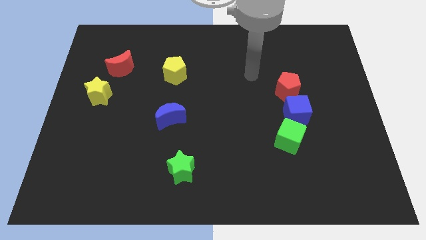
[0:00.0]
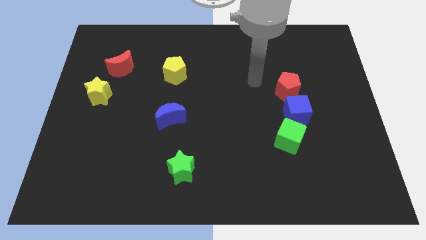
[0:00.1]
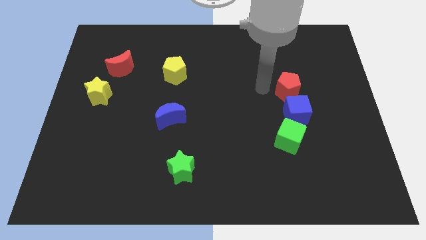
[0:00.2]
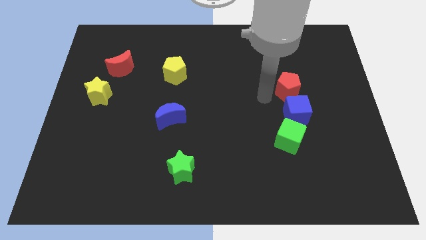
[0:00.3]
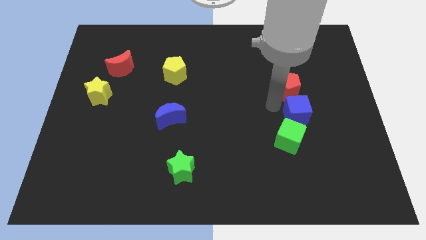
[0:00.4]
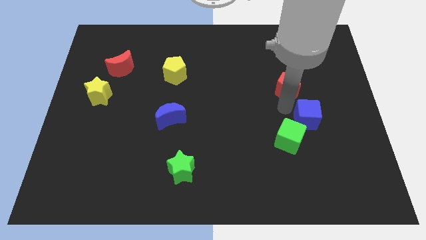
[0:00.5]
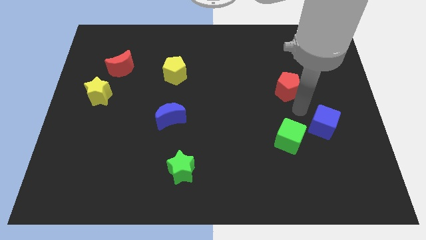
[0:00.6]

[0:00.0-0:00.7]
separate the red pentagon from the blue cube

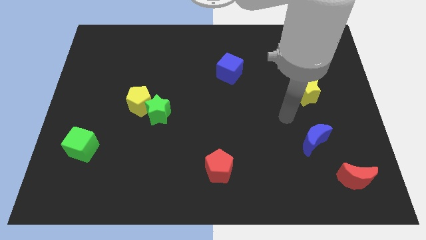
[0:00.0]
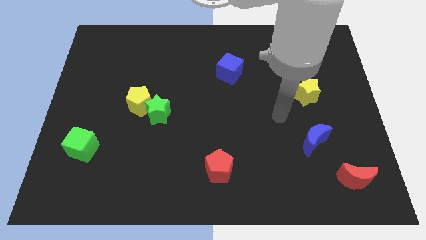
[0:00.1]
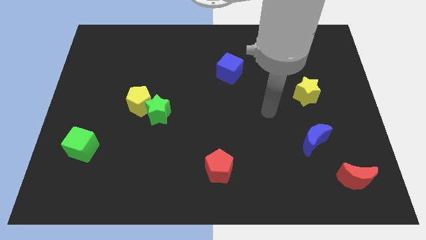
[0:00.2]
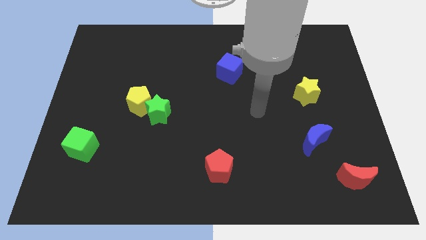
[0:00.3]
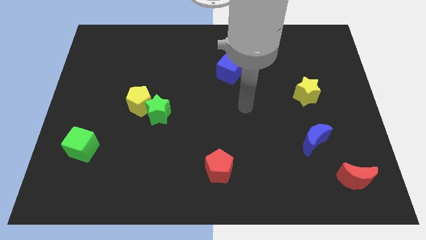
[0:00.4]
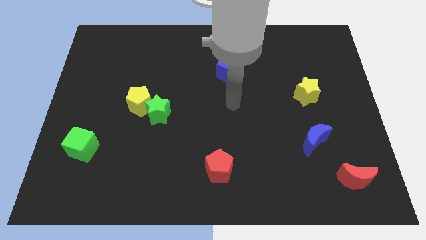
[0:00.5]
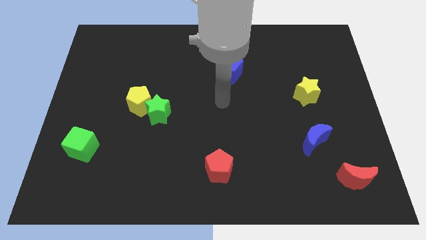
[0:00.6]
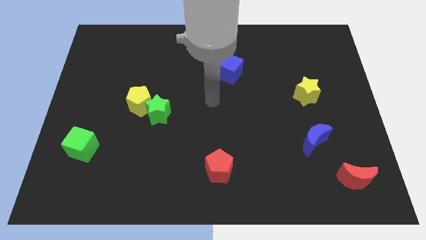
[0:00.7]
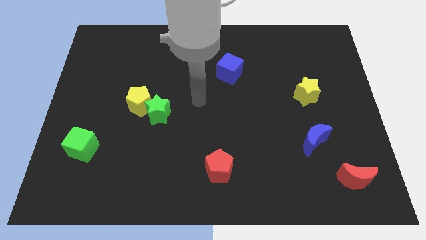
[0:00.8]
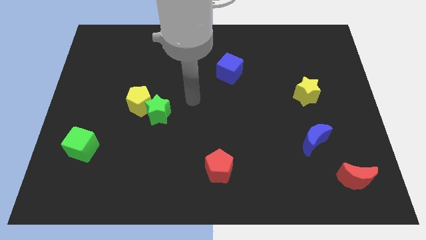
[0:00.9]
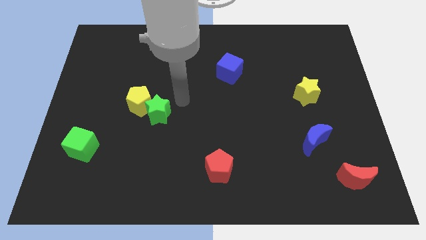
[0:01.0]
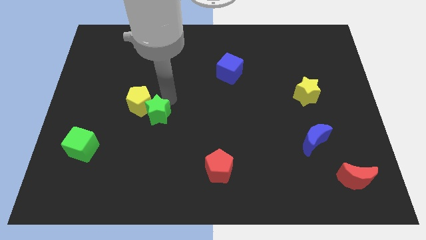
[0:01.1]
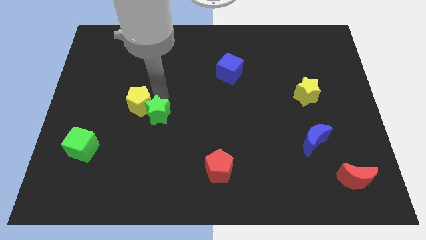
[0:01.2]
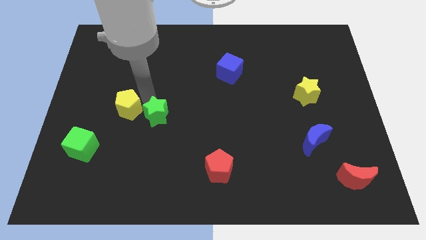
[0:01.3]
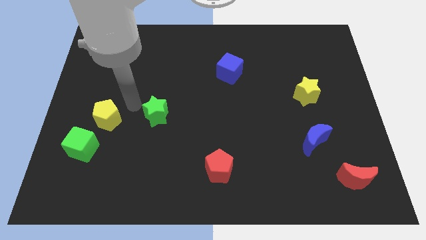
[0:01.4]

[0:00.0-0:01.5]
separate the green star from the yellow pentagon

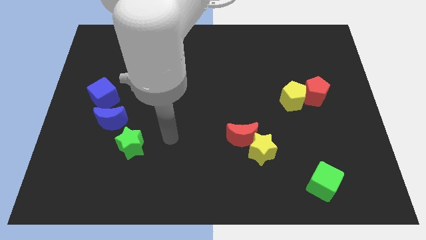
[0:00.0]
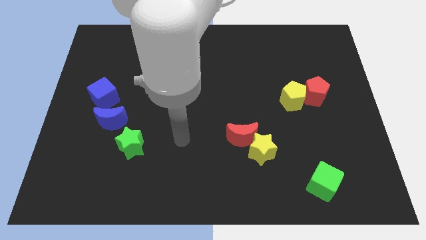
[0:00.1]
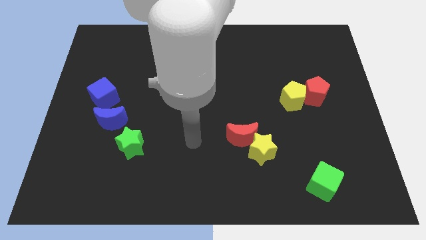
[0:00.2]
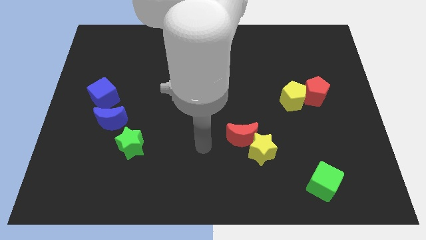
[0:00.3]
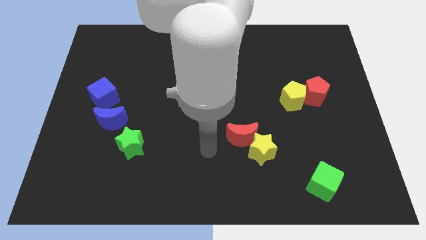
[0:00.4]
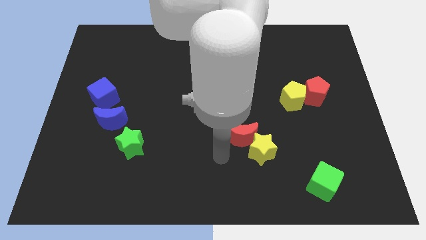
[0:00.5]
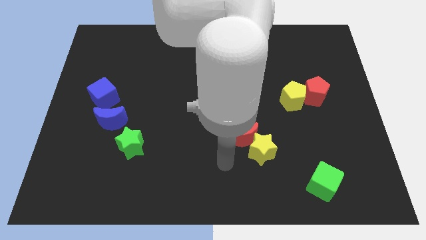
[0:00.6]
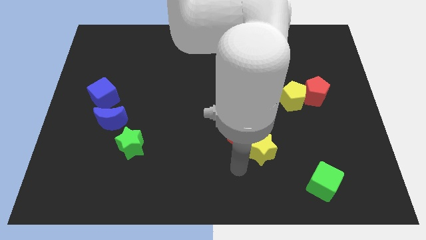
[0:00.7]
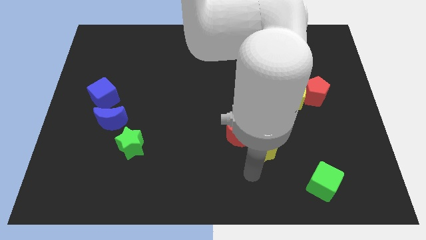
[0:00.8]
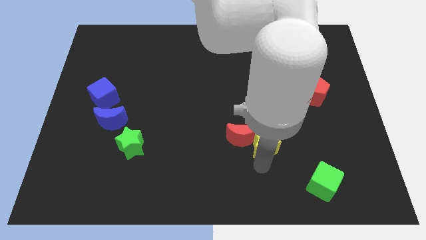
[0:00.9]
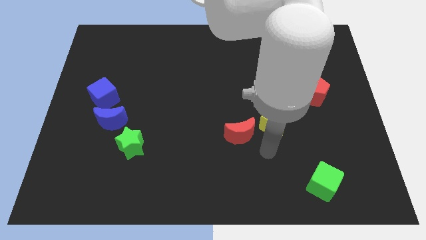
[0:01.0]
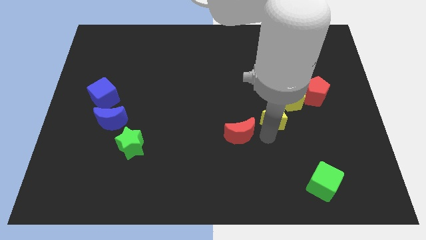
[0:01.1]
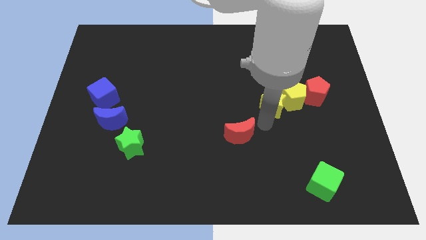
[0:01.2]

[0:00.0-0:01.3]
separate the red moon from the yellow star

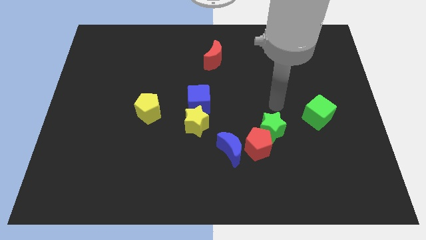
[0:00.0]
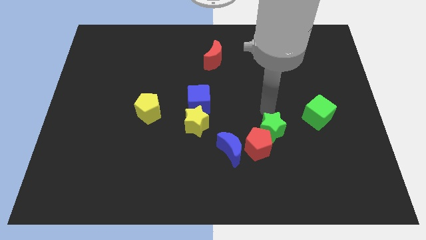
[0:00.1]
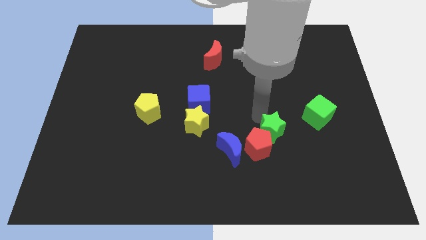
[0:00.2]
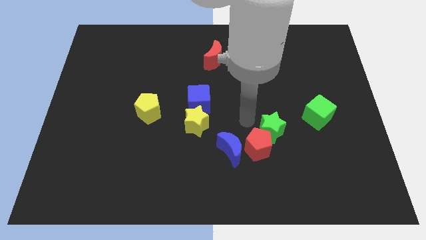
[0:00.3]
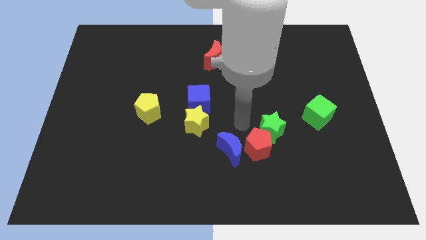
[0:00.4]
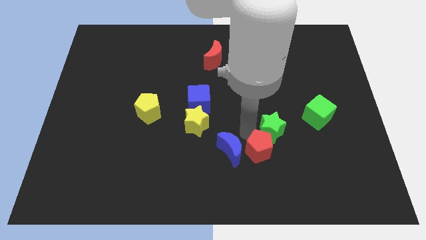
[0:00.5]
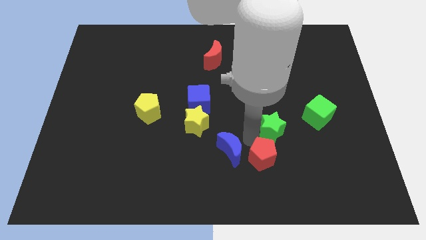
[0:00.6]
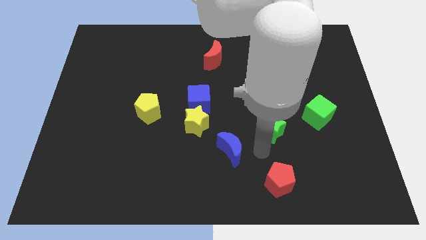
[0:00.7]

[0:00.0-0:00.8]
move the green star away from the red pentagon

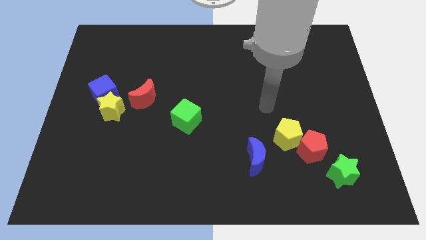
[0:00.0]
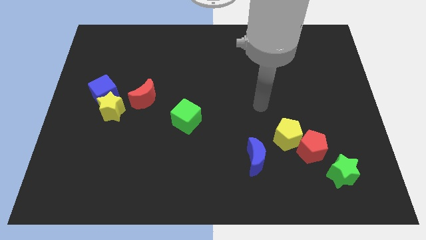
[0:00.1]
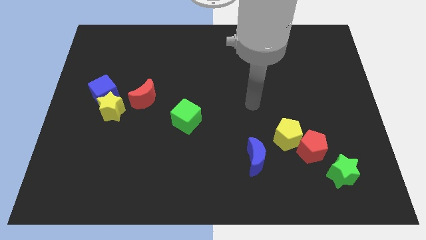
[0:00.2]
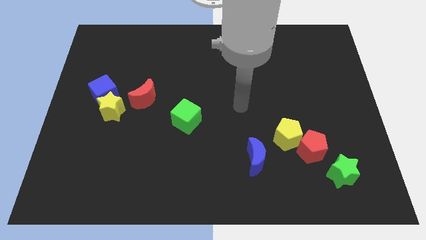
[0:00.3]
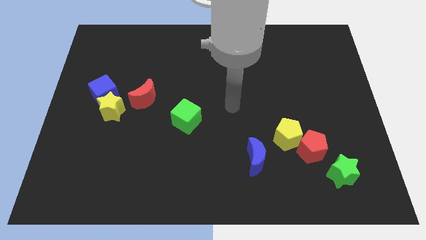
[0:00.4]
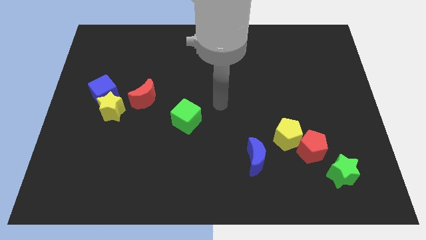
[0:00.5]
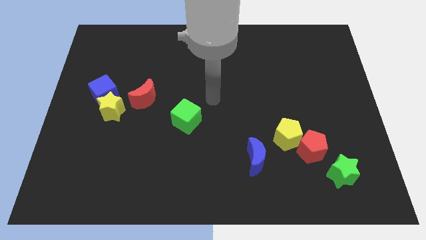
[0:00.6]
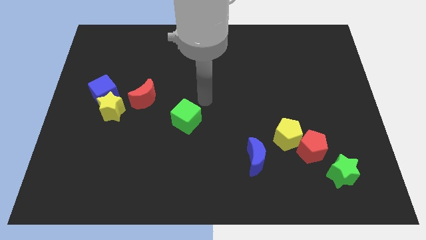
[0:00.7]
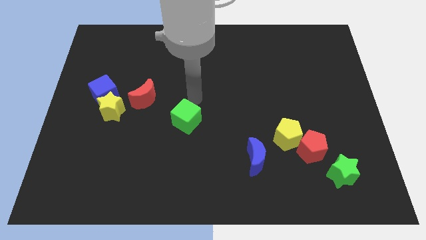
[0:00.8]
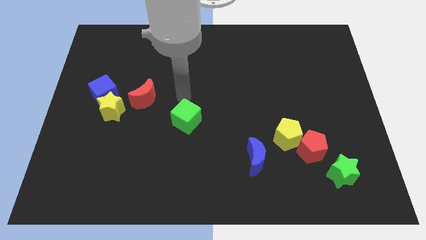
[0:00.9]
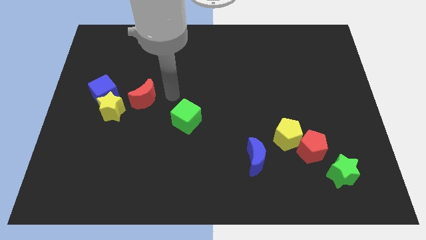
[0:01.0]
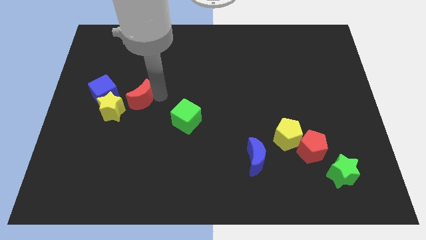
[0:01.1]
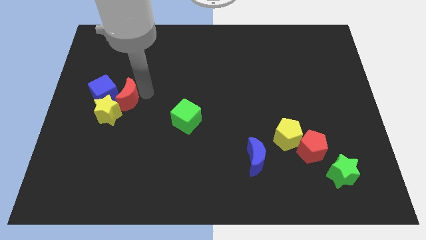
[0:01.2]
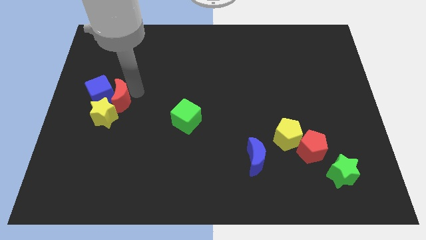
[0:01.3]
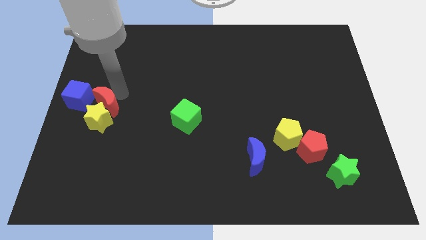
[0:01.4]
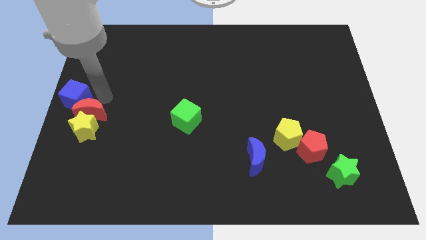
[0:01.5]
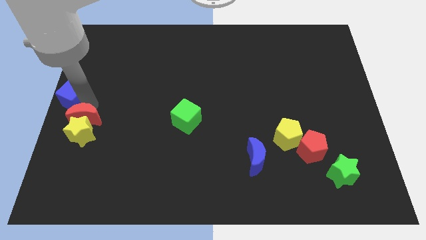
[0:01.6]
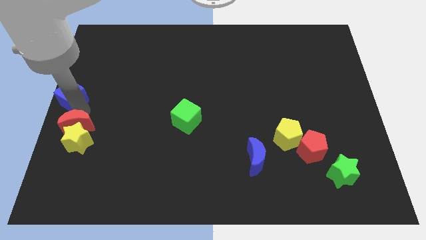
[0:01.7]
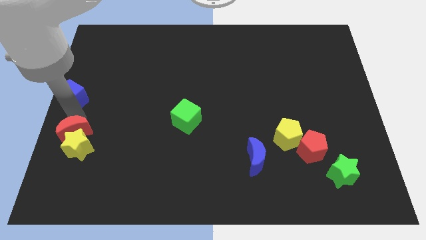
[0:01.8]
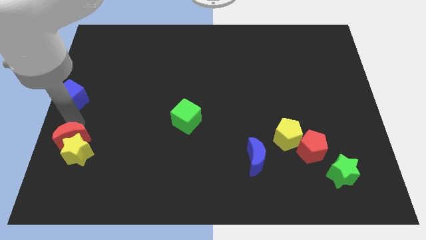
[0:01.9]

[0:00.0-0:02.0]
pull the yellow star apart from the blue cube and red moon

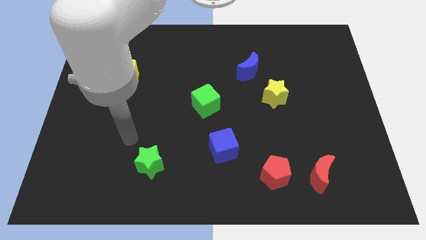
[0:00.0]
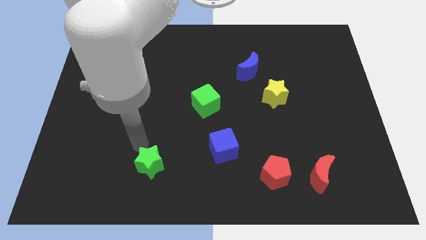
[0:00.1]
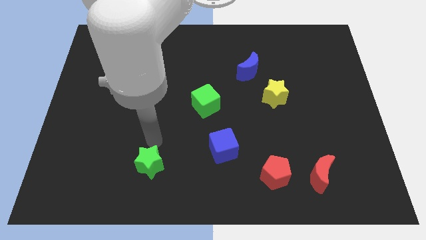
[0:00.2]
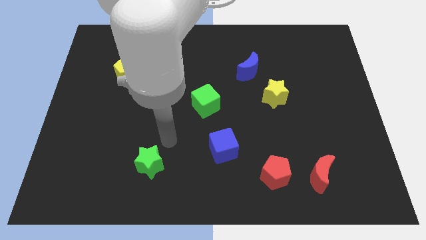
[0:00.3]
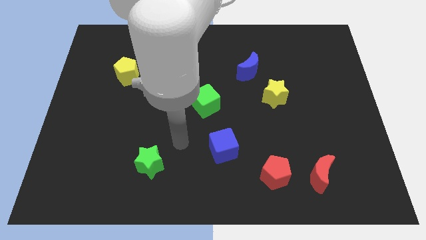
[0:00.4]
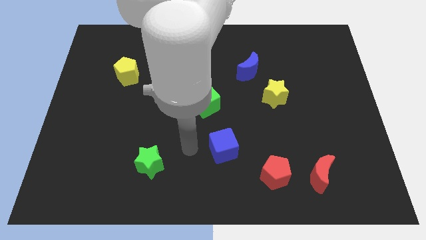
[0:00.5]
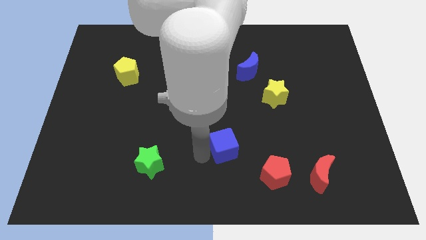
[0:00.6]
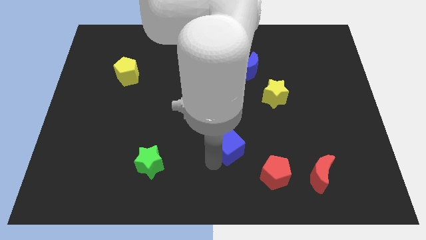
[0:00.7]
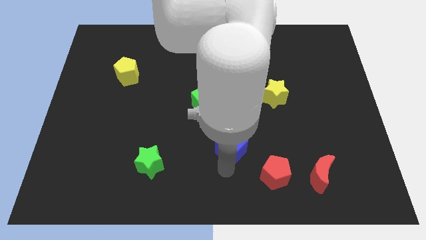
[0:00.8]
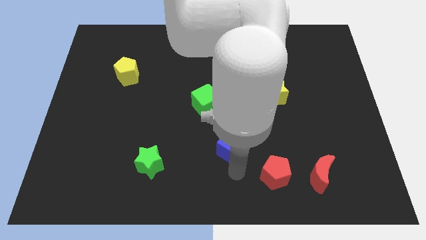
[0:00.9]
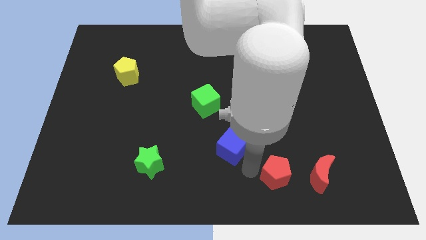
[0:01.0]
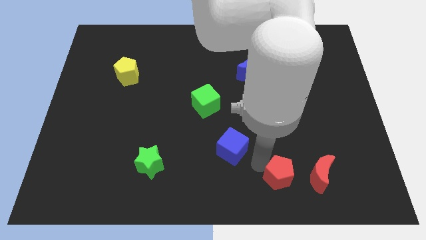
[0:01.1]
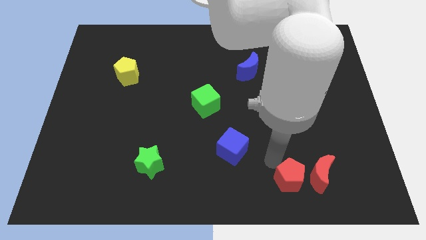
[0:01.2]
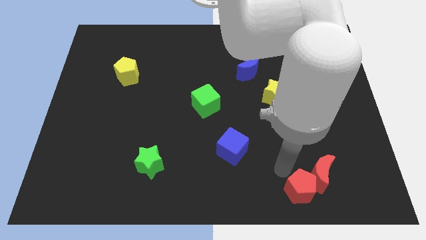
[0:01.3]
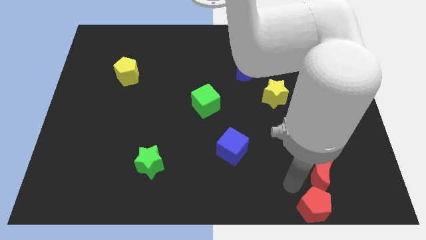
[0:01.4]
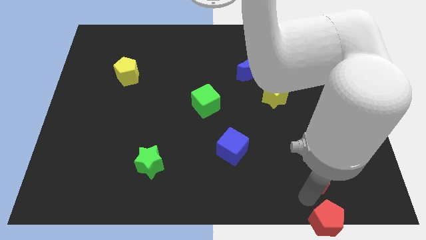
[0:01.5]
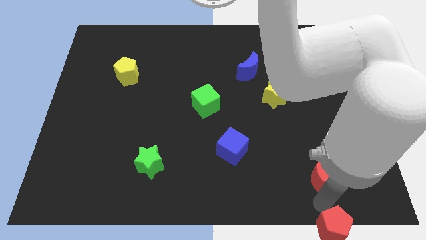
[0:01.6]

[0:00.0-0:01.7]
separate the red moon from the red pentagon

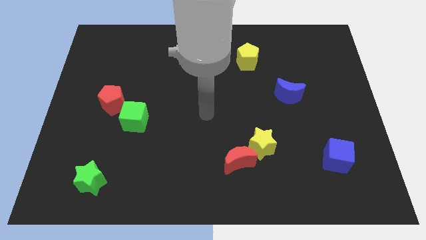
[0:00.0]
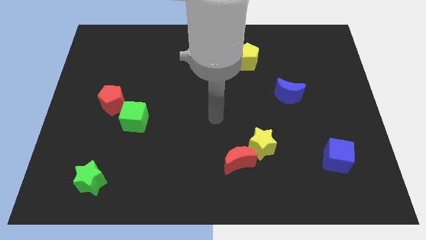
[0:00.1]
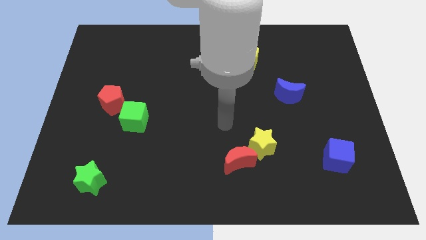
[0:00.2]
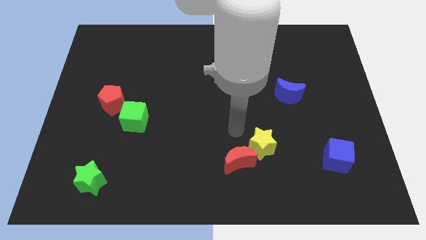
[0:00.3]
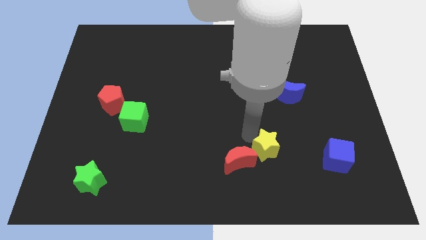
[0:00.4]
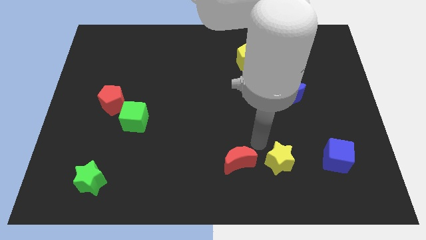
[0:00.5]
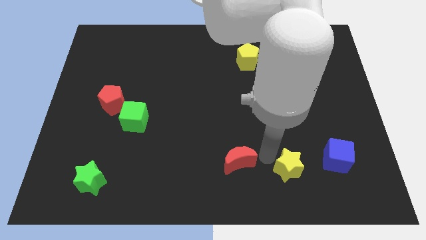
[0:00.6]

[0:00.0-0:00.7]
pull the red moon apart from the yellow star

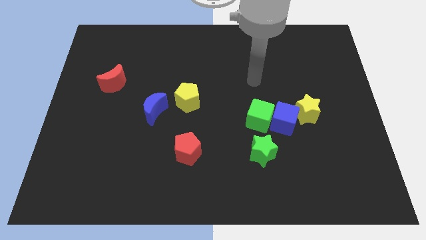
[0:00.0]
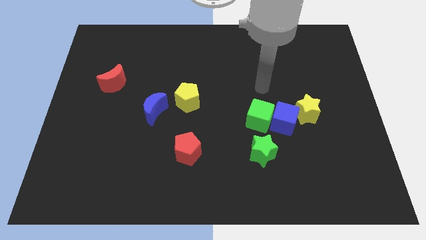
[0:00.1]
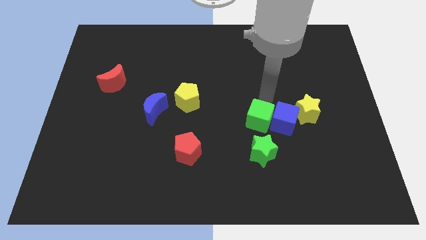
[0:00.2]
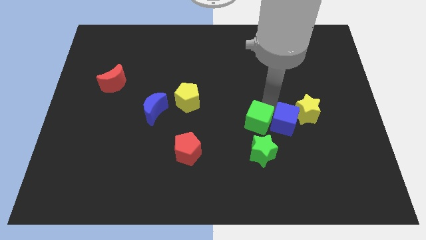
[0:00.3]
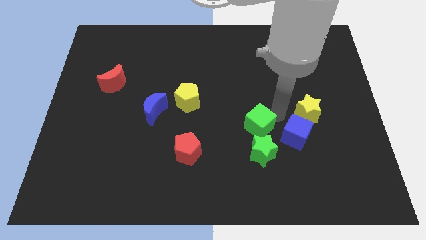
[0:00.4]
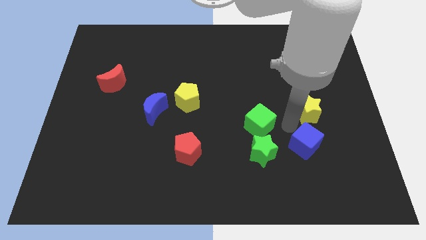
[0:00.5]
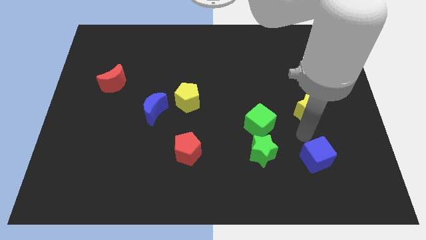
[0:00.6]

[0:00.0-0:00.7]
move the yellow star away from the blue cube
